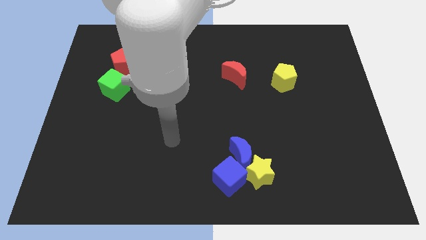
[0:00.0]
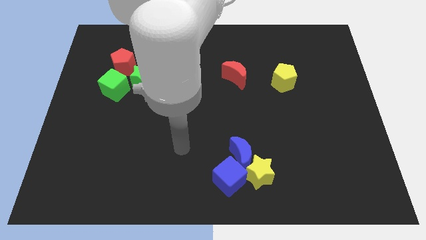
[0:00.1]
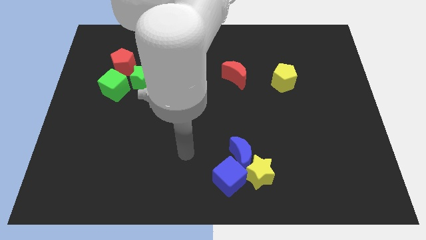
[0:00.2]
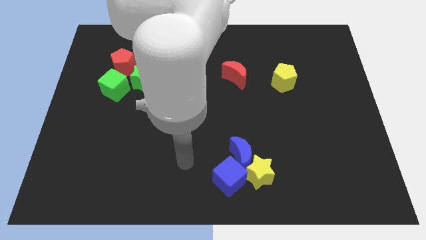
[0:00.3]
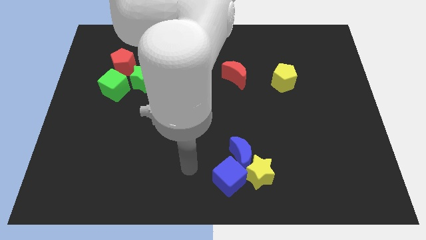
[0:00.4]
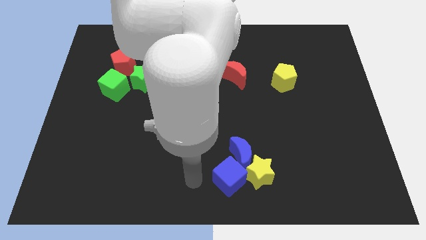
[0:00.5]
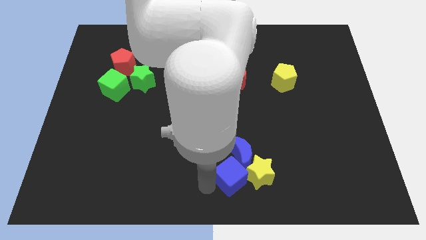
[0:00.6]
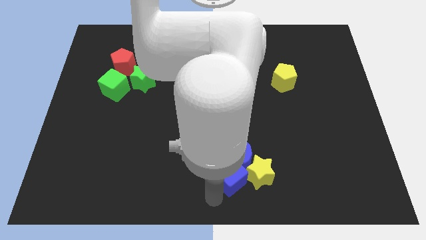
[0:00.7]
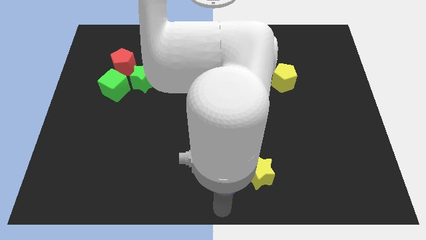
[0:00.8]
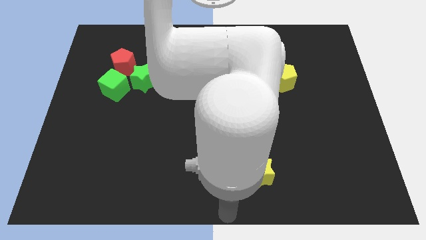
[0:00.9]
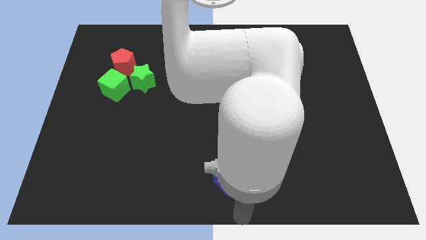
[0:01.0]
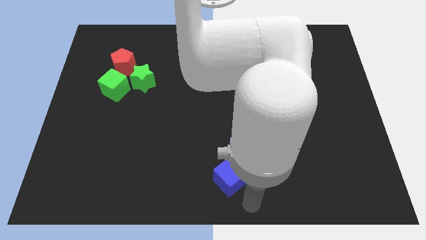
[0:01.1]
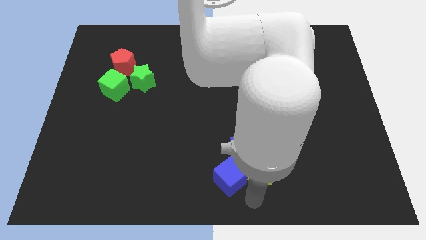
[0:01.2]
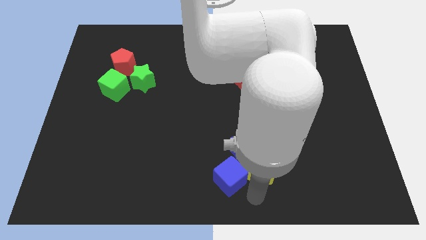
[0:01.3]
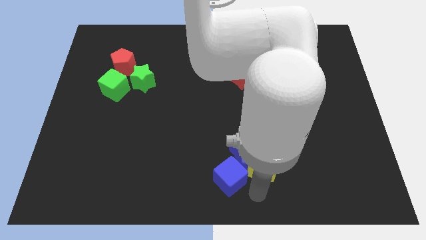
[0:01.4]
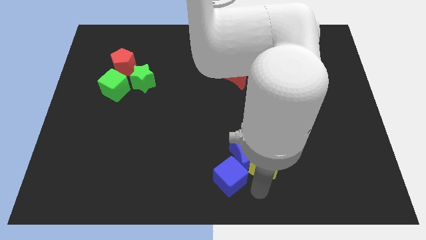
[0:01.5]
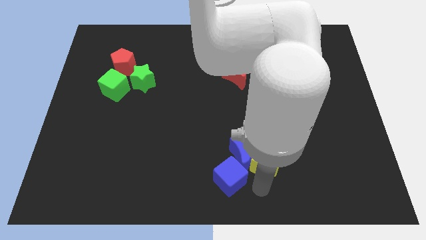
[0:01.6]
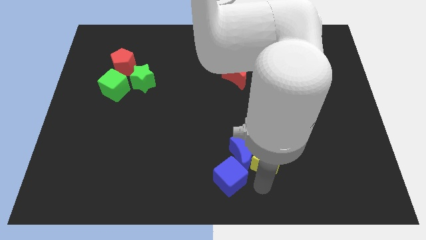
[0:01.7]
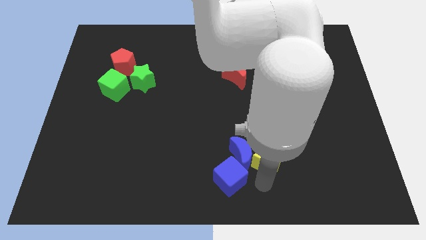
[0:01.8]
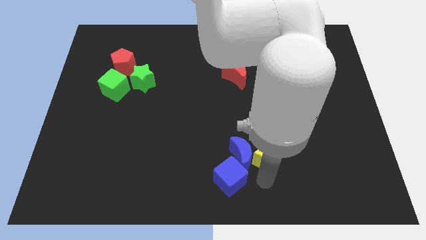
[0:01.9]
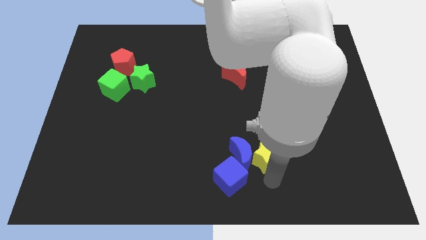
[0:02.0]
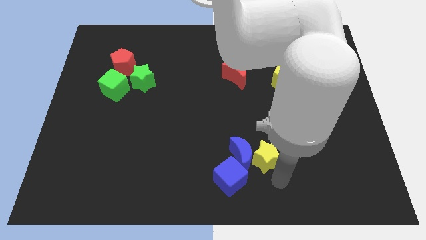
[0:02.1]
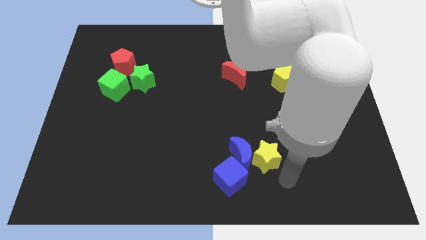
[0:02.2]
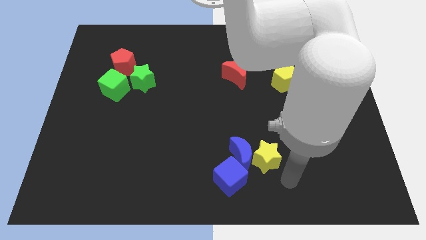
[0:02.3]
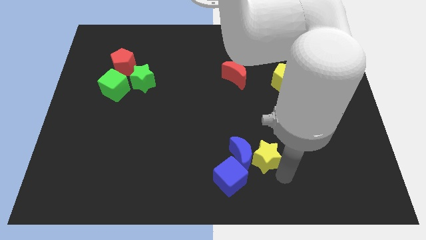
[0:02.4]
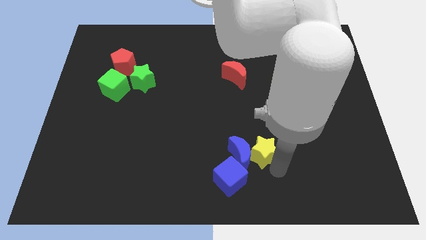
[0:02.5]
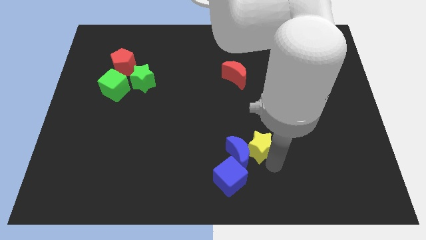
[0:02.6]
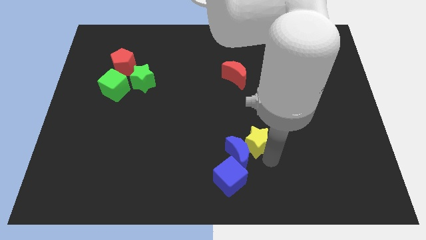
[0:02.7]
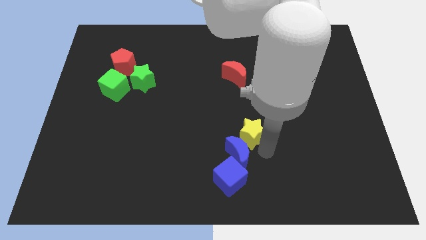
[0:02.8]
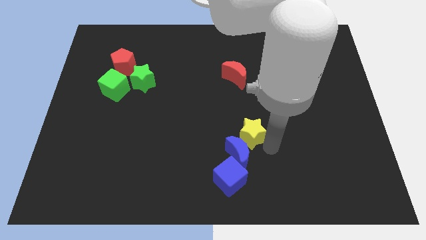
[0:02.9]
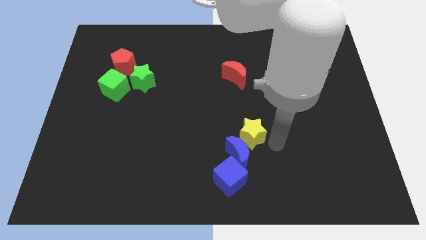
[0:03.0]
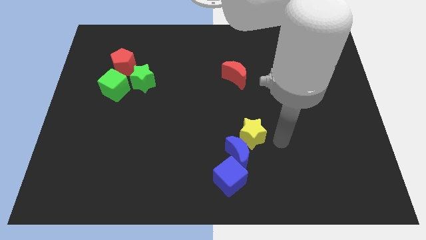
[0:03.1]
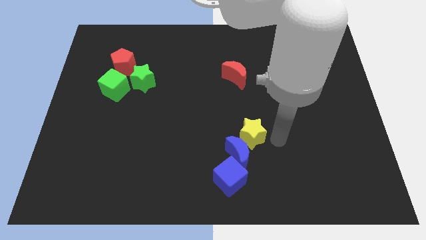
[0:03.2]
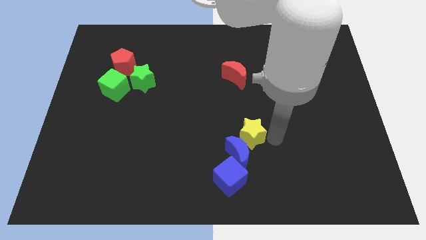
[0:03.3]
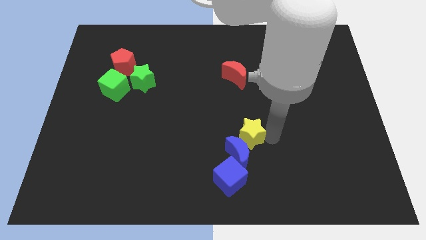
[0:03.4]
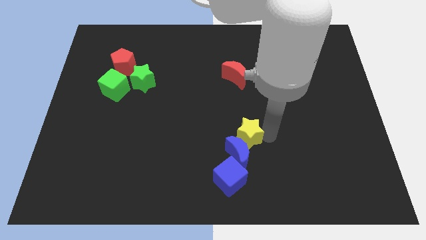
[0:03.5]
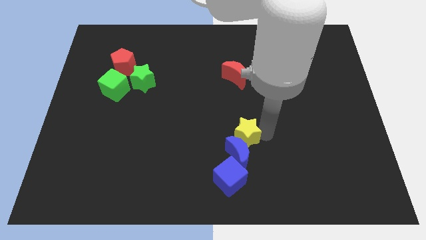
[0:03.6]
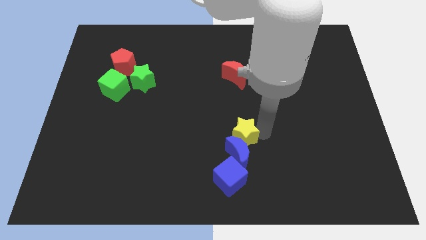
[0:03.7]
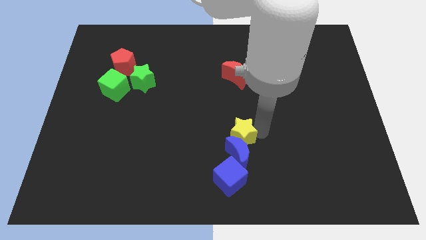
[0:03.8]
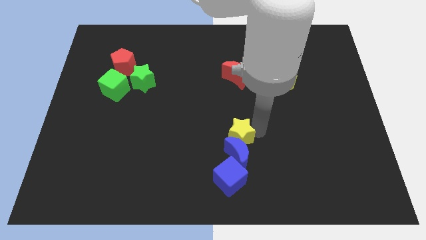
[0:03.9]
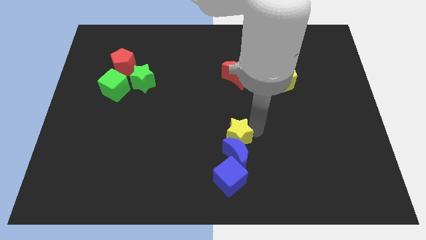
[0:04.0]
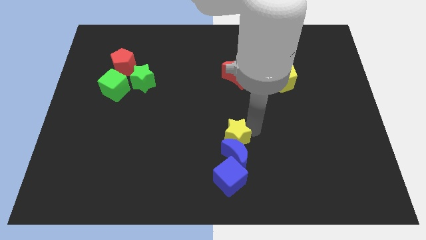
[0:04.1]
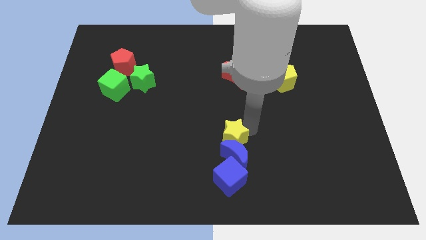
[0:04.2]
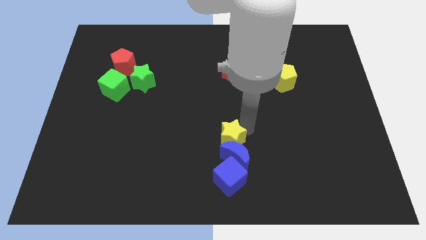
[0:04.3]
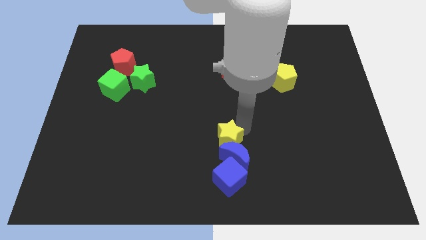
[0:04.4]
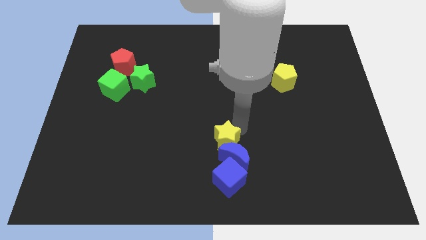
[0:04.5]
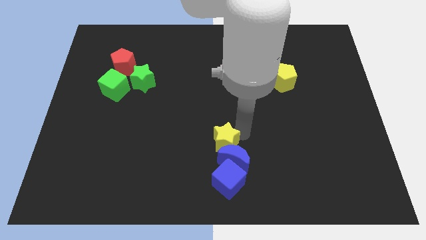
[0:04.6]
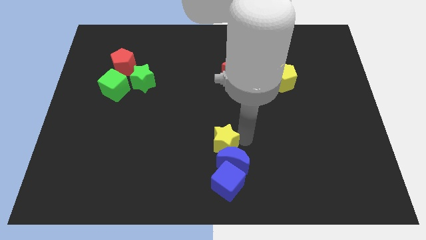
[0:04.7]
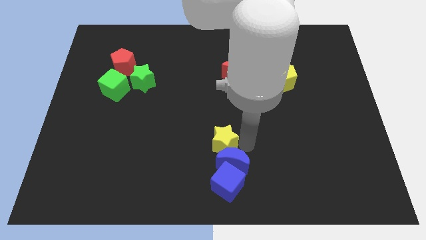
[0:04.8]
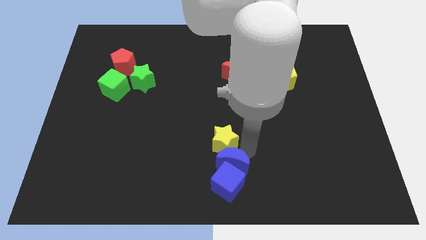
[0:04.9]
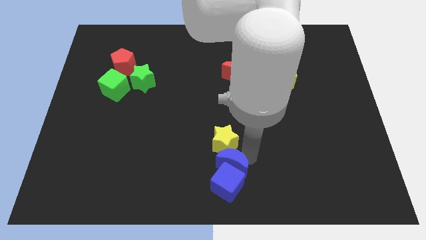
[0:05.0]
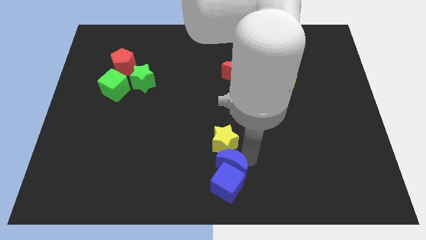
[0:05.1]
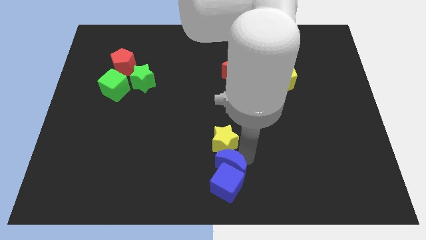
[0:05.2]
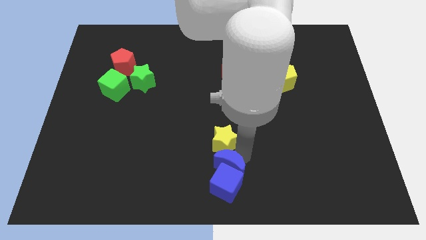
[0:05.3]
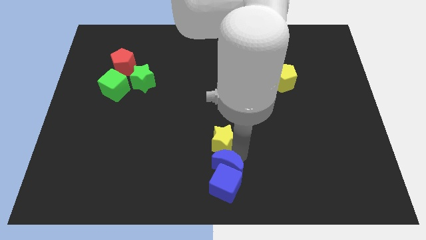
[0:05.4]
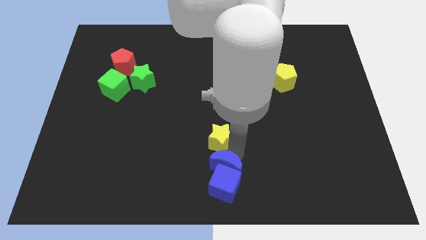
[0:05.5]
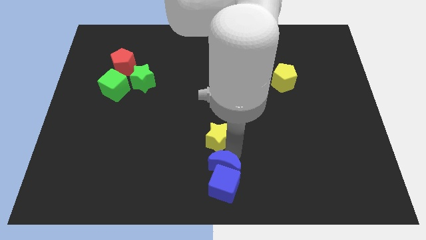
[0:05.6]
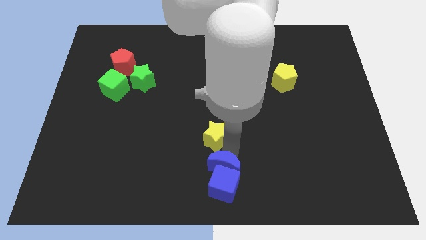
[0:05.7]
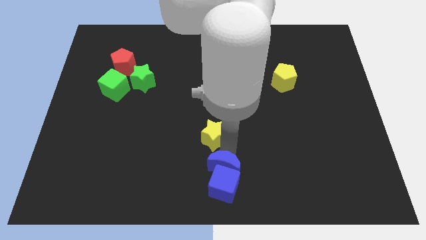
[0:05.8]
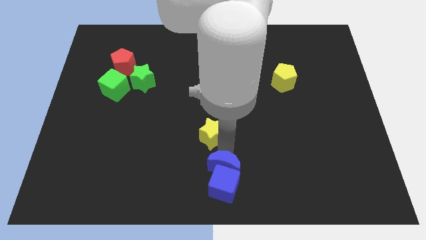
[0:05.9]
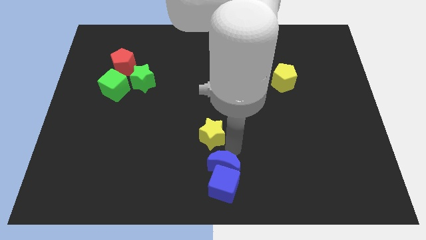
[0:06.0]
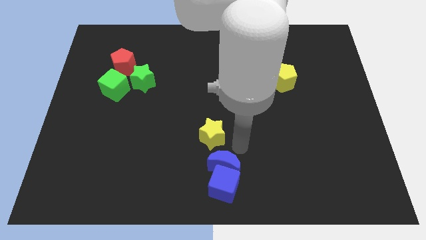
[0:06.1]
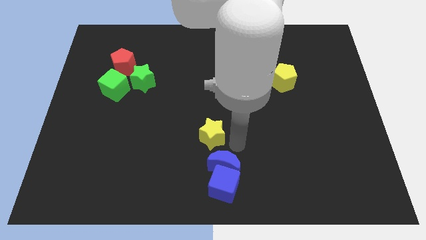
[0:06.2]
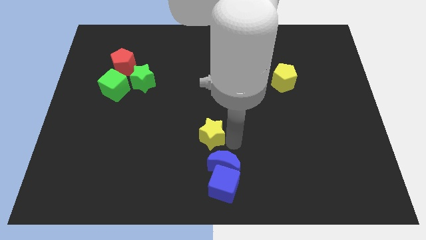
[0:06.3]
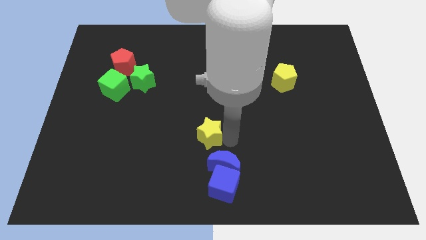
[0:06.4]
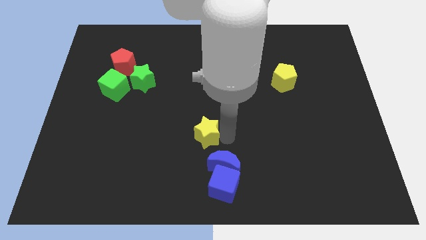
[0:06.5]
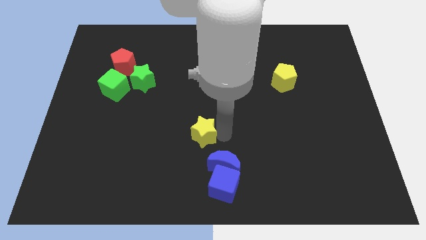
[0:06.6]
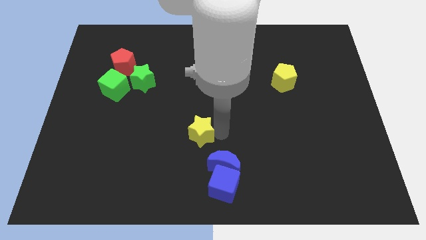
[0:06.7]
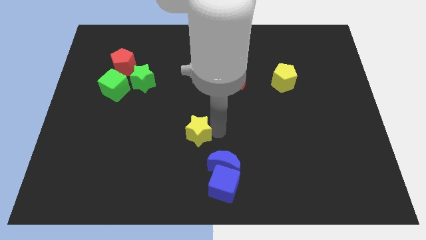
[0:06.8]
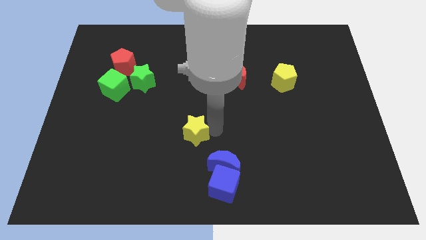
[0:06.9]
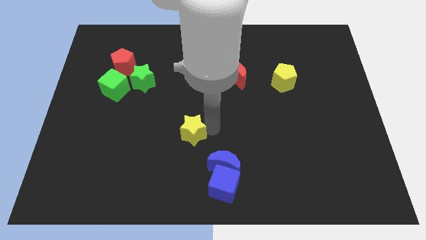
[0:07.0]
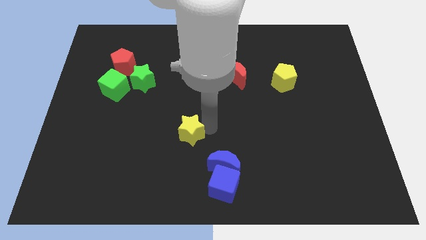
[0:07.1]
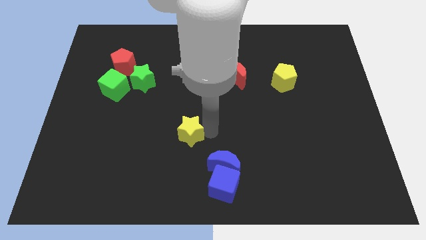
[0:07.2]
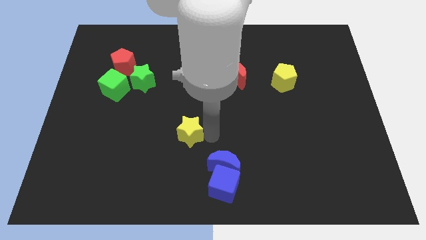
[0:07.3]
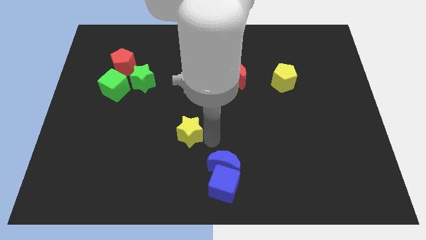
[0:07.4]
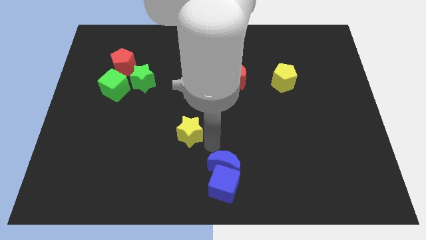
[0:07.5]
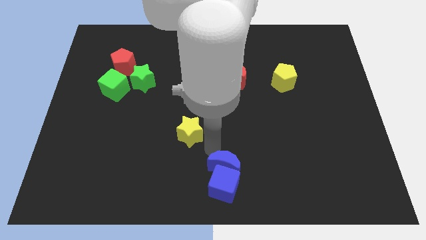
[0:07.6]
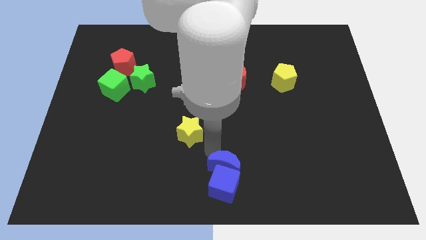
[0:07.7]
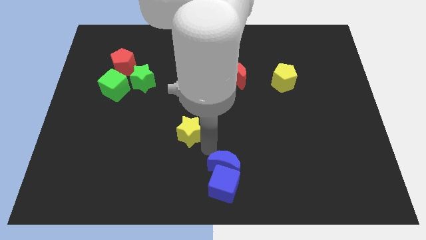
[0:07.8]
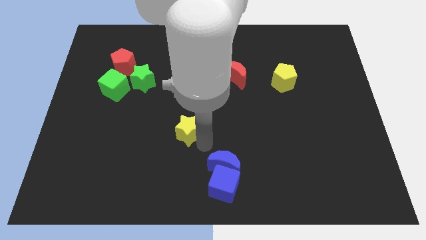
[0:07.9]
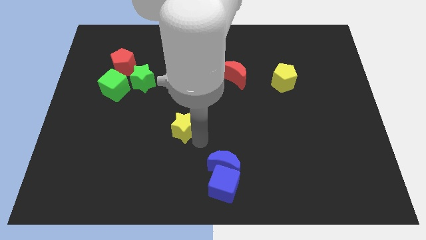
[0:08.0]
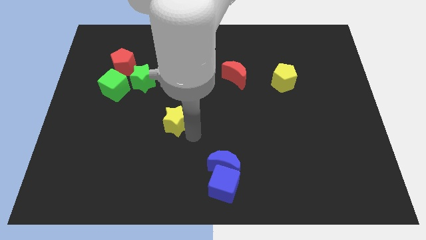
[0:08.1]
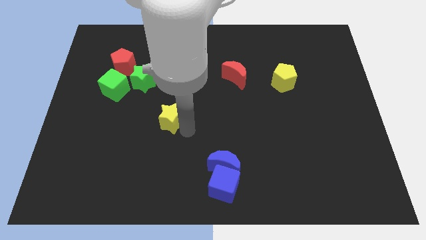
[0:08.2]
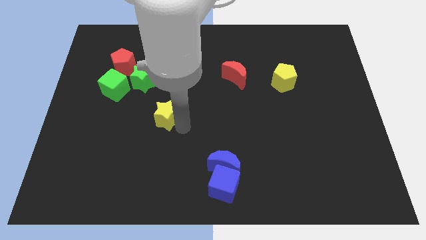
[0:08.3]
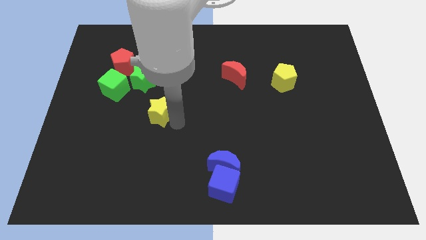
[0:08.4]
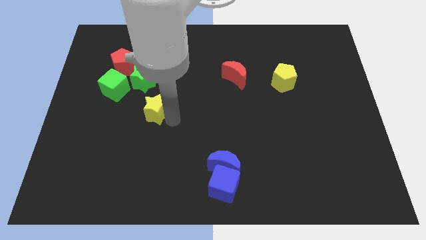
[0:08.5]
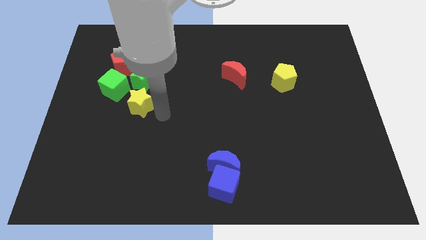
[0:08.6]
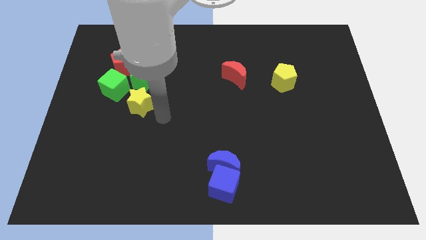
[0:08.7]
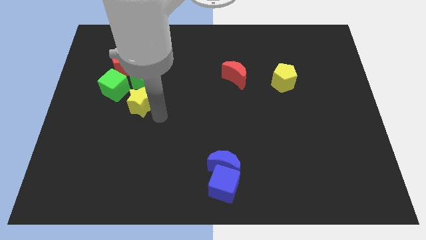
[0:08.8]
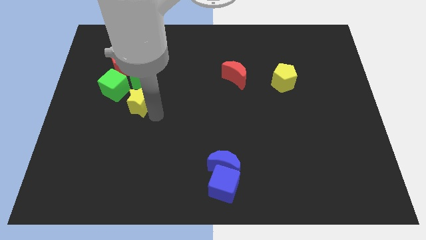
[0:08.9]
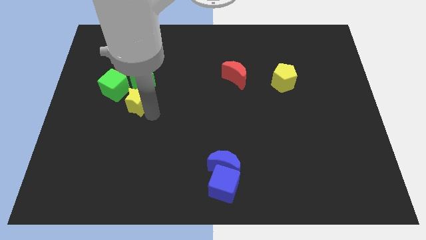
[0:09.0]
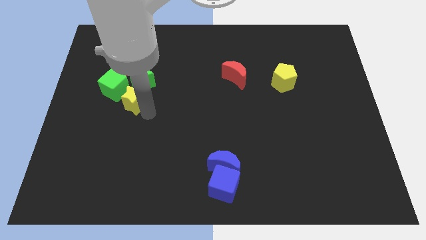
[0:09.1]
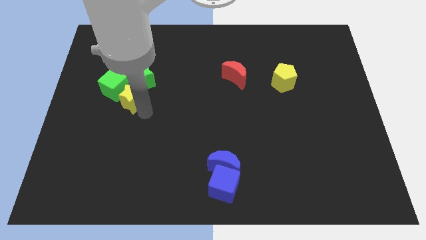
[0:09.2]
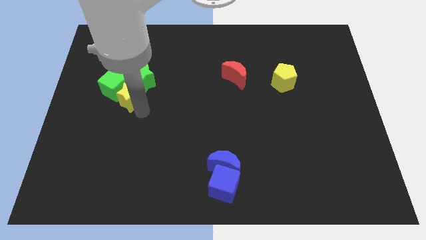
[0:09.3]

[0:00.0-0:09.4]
slide the yellow star close to the green cube
